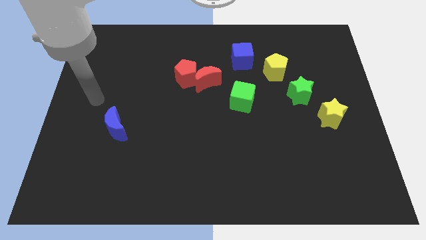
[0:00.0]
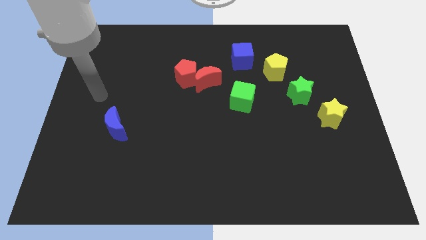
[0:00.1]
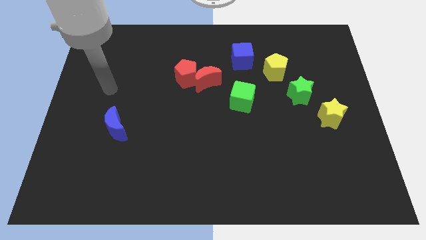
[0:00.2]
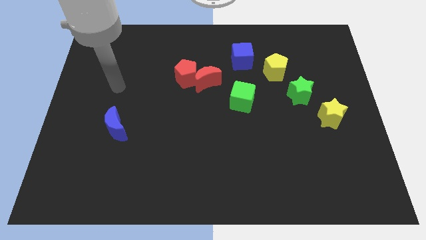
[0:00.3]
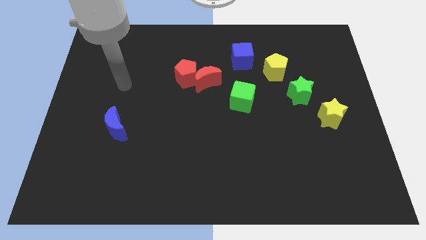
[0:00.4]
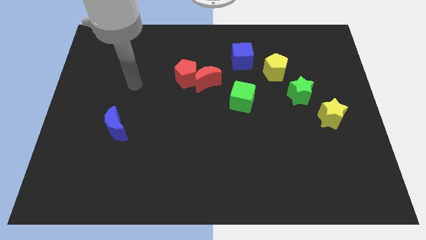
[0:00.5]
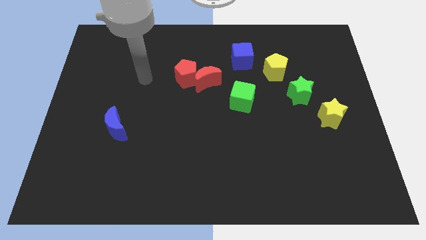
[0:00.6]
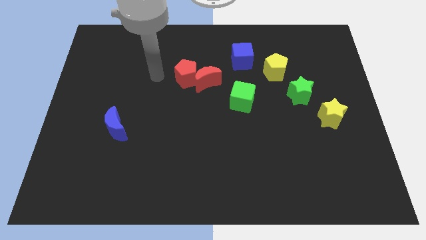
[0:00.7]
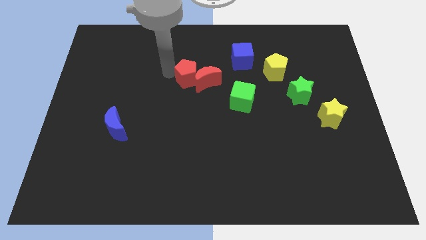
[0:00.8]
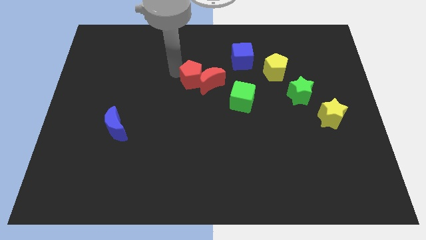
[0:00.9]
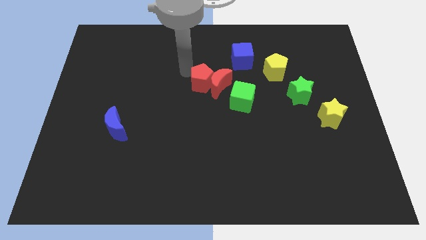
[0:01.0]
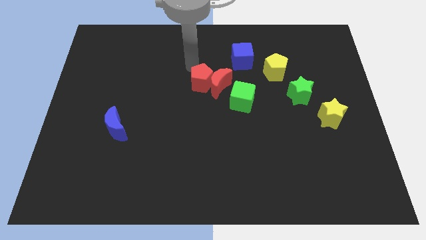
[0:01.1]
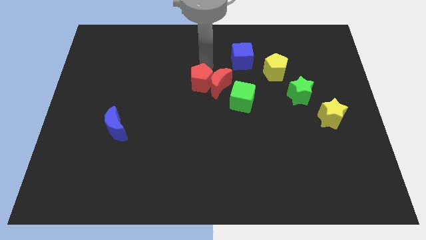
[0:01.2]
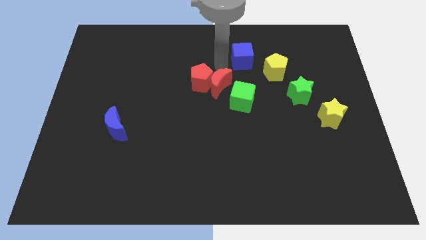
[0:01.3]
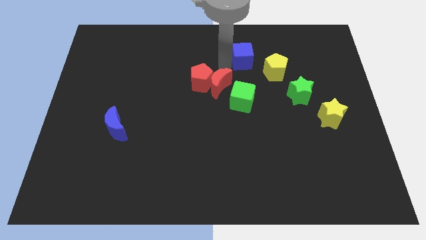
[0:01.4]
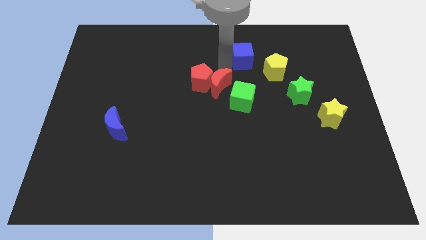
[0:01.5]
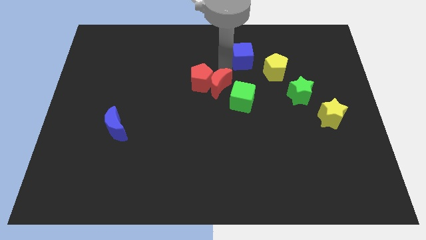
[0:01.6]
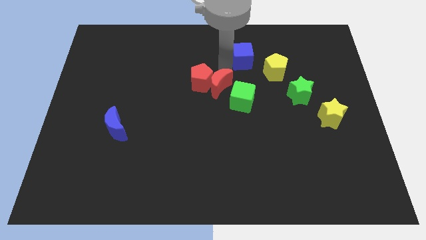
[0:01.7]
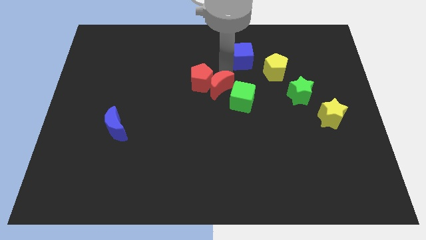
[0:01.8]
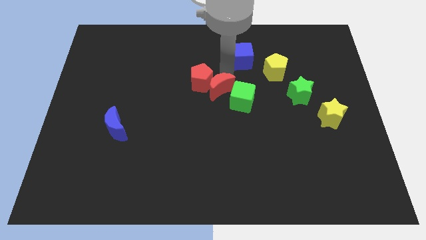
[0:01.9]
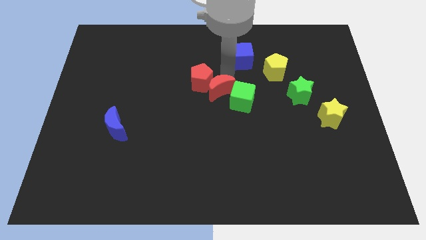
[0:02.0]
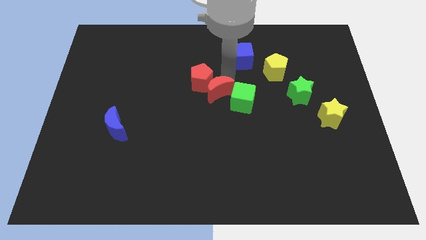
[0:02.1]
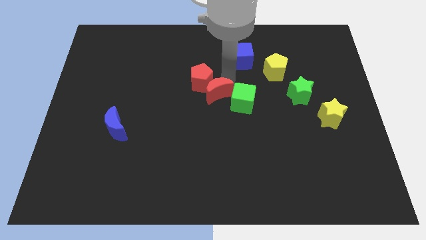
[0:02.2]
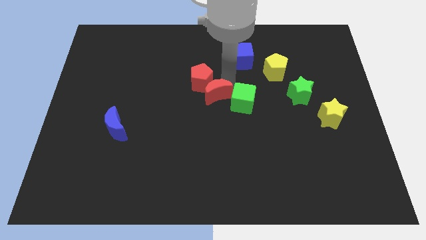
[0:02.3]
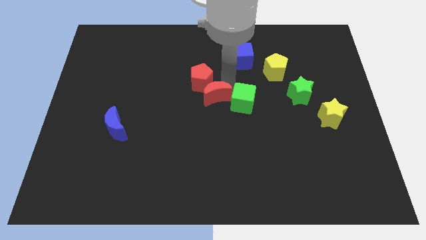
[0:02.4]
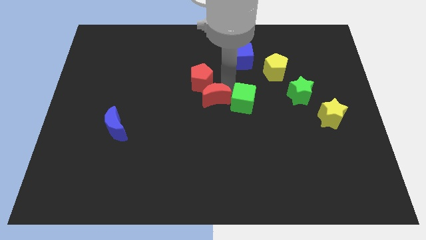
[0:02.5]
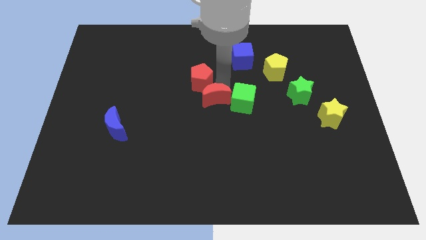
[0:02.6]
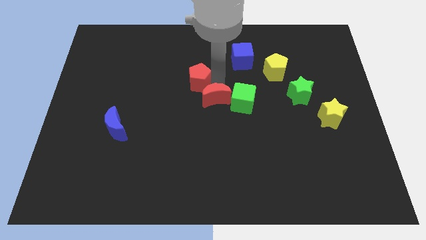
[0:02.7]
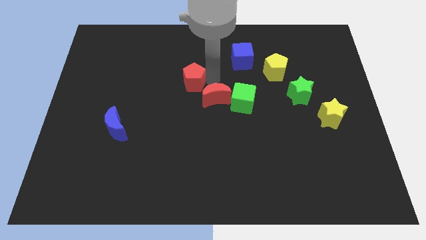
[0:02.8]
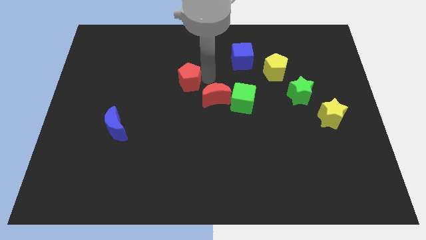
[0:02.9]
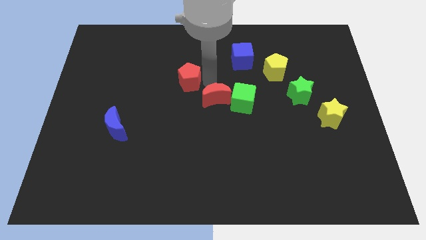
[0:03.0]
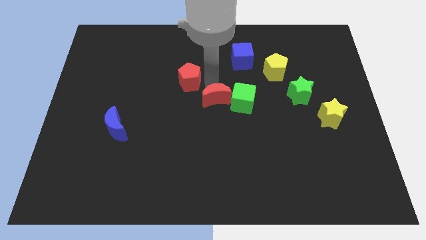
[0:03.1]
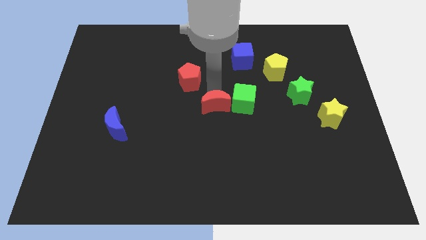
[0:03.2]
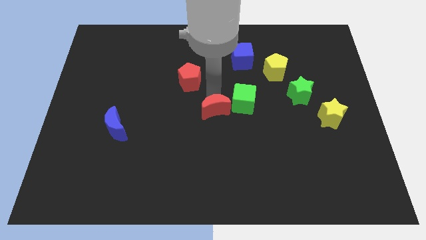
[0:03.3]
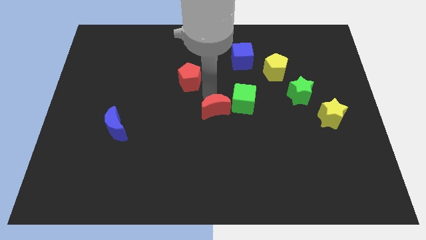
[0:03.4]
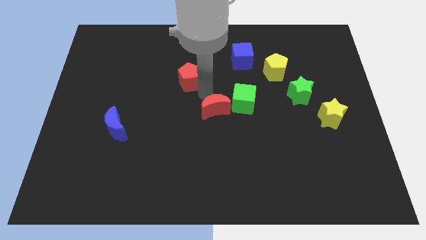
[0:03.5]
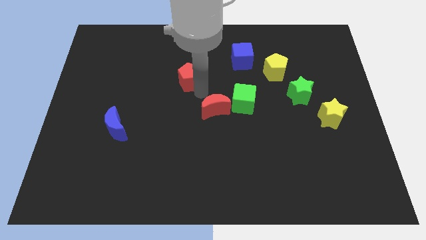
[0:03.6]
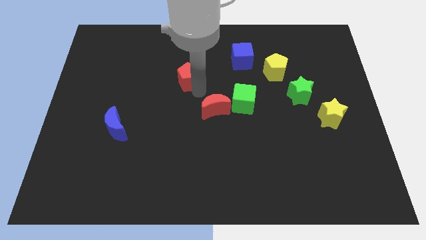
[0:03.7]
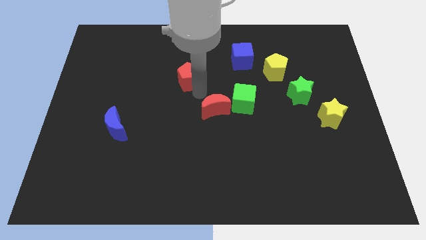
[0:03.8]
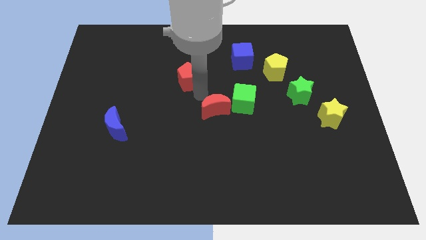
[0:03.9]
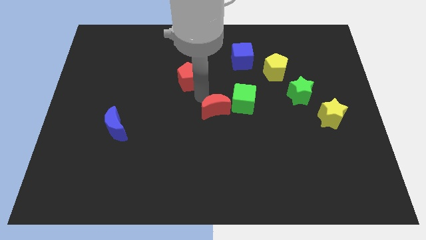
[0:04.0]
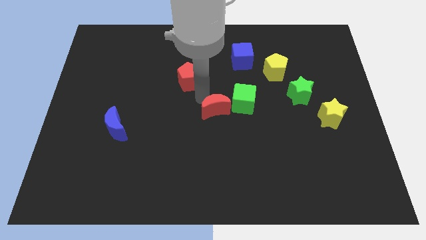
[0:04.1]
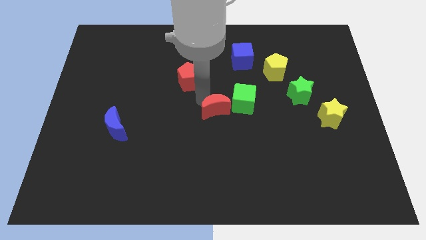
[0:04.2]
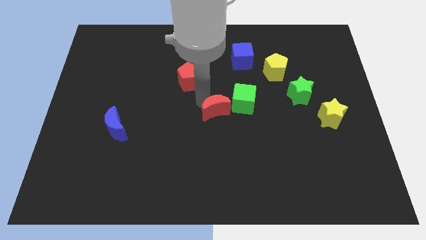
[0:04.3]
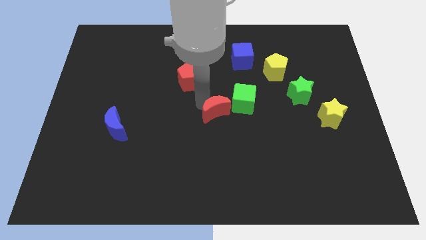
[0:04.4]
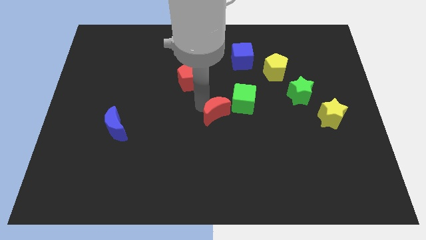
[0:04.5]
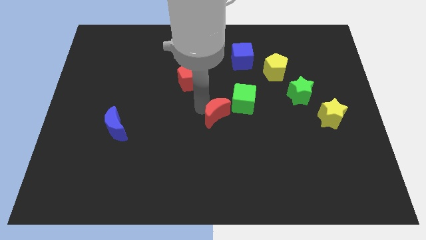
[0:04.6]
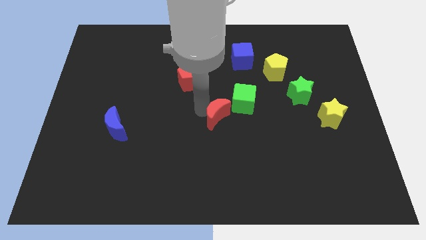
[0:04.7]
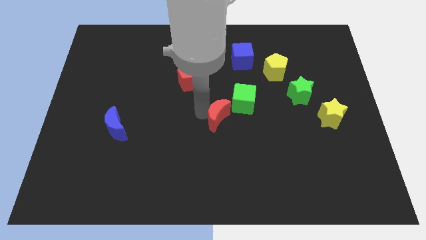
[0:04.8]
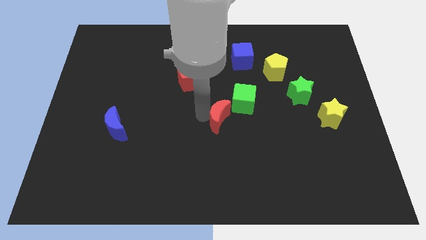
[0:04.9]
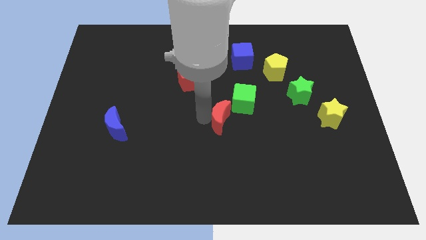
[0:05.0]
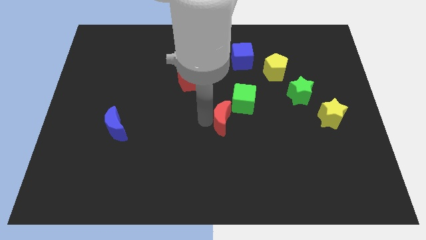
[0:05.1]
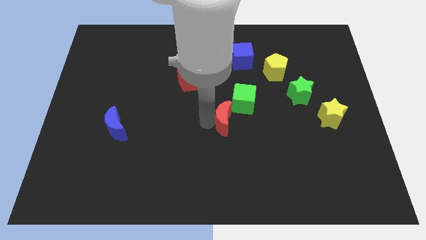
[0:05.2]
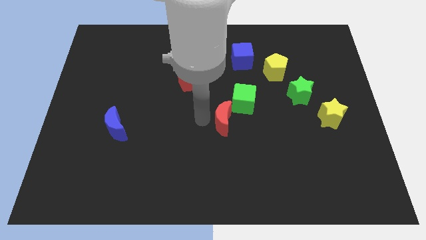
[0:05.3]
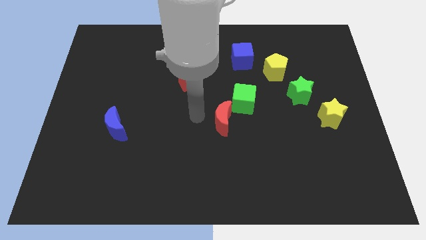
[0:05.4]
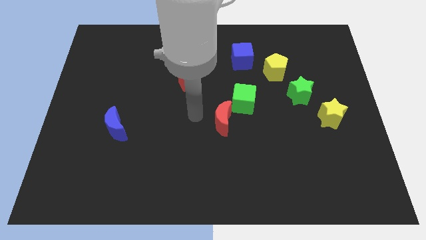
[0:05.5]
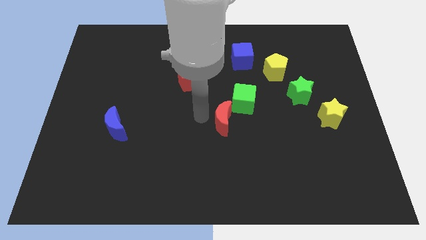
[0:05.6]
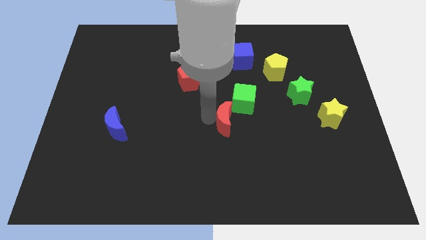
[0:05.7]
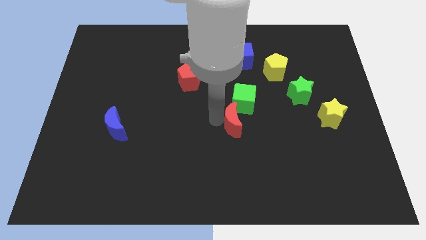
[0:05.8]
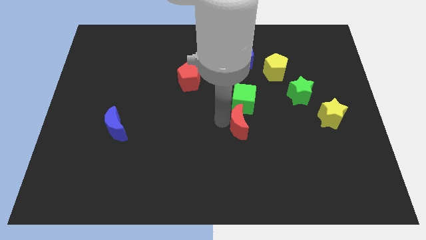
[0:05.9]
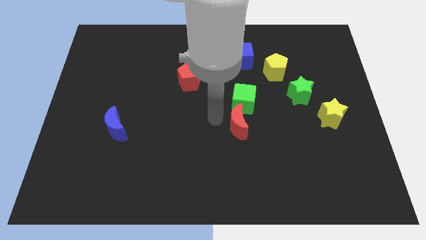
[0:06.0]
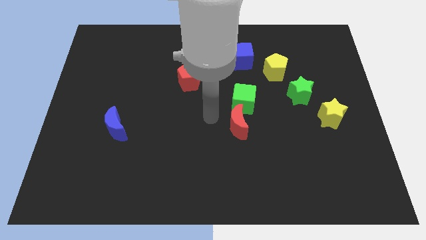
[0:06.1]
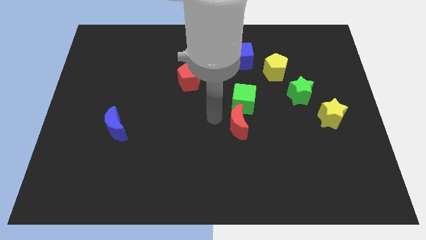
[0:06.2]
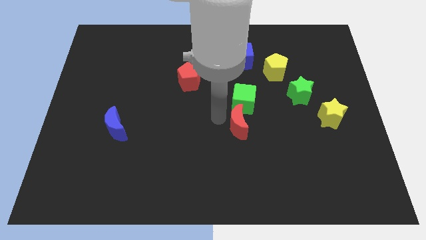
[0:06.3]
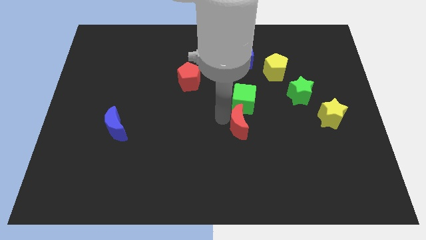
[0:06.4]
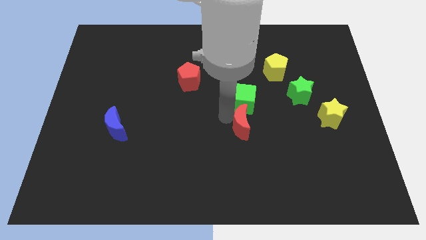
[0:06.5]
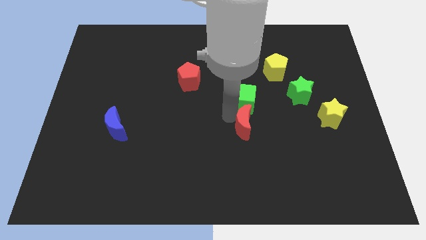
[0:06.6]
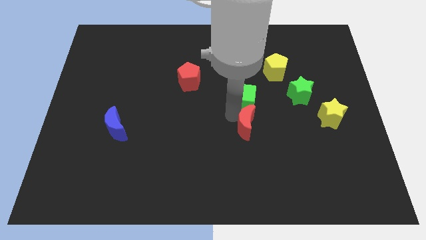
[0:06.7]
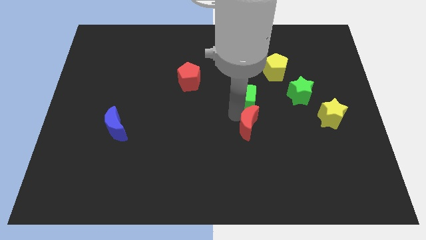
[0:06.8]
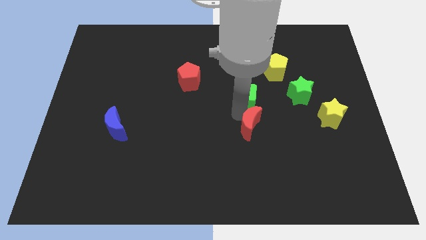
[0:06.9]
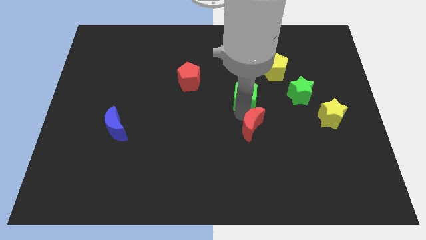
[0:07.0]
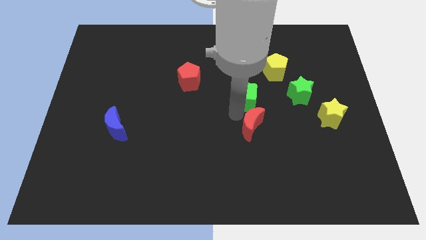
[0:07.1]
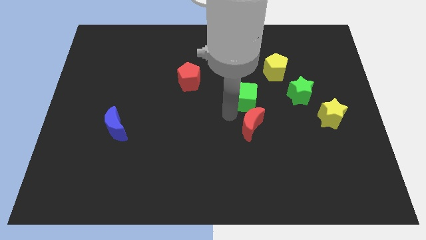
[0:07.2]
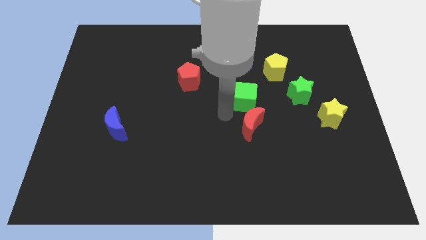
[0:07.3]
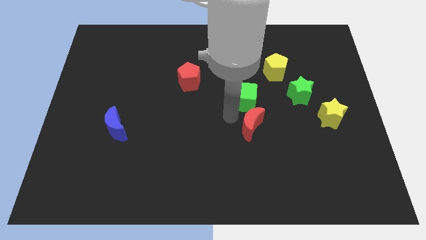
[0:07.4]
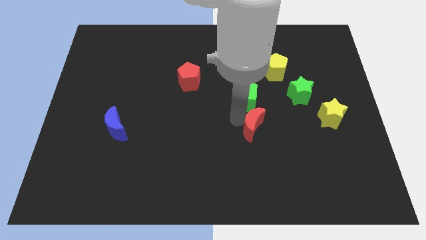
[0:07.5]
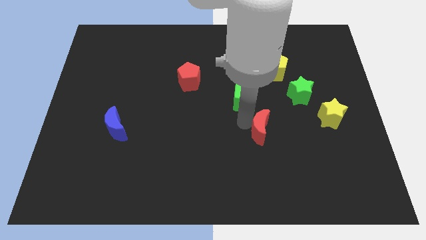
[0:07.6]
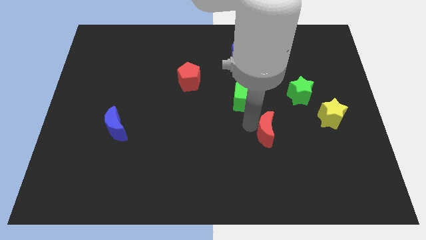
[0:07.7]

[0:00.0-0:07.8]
slide the red moon down and then right
